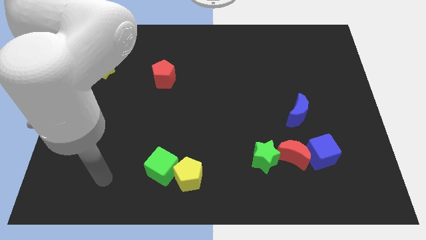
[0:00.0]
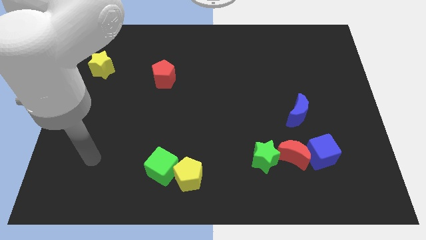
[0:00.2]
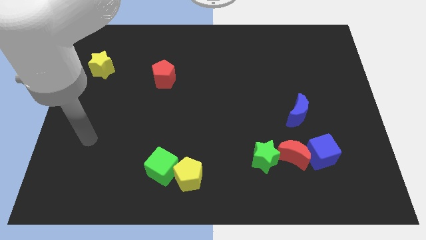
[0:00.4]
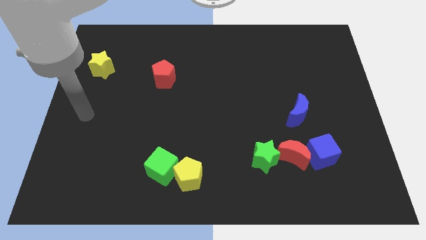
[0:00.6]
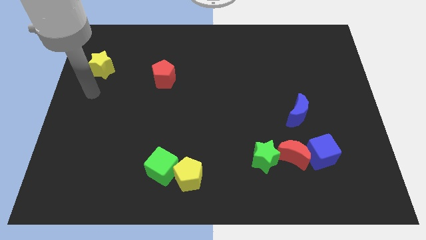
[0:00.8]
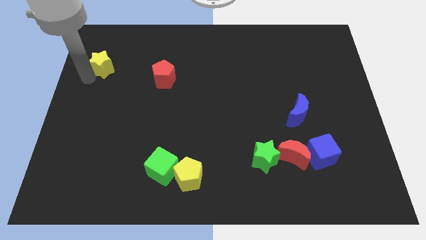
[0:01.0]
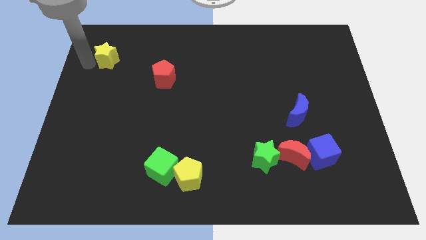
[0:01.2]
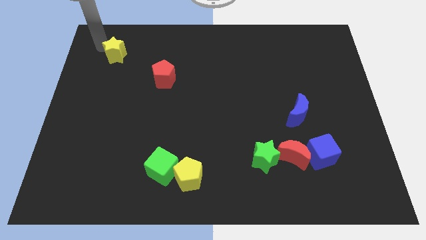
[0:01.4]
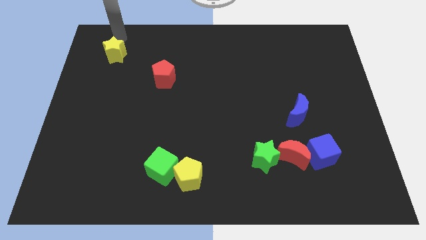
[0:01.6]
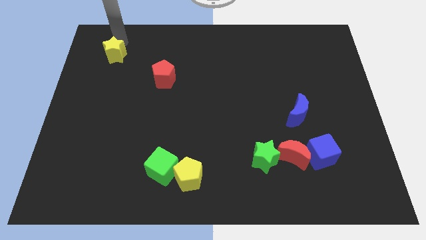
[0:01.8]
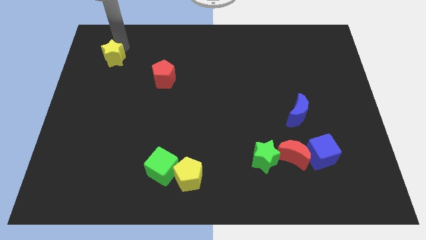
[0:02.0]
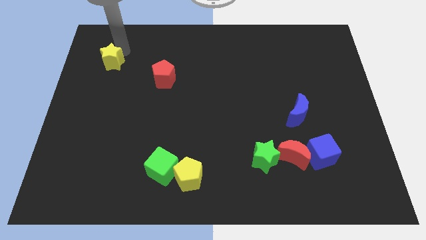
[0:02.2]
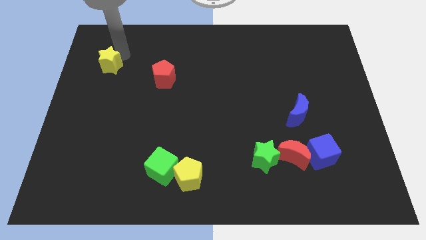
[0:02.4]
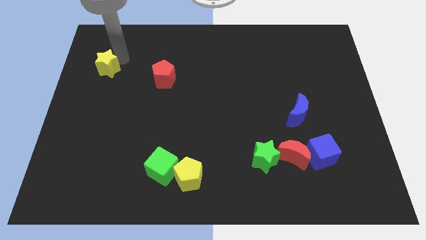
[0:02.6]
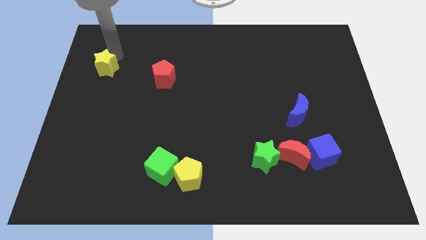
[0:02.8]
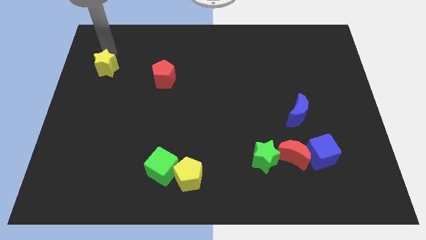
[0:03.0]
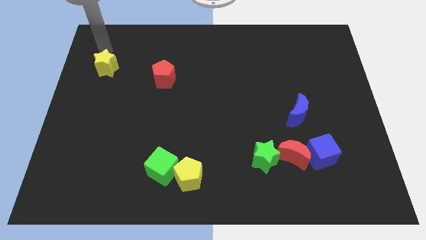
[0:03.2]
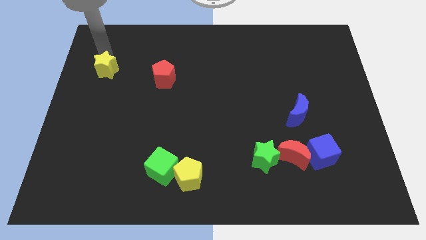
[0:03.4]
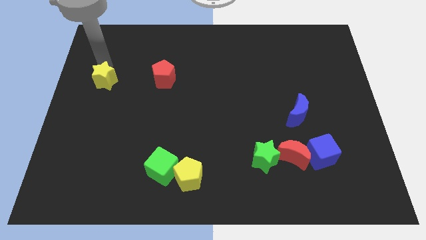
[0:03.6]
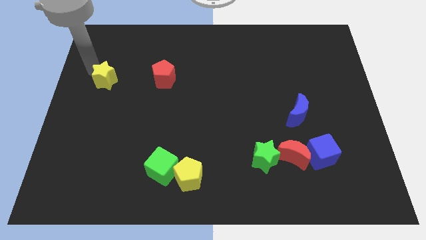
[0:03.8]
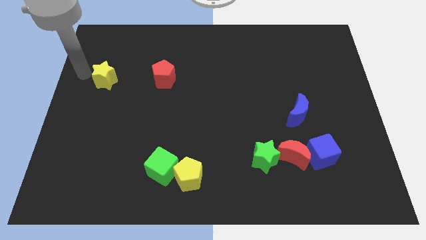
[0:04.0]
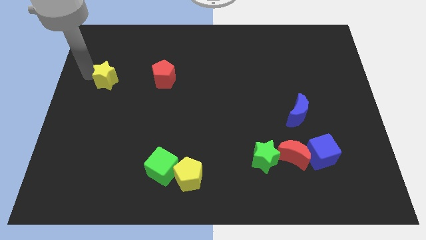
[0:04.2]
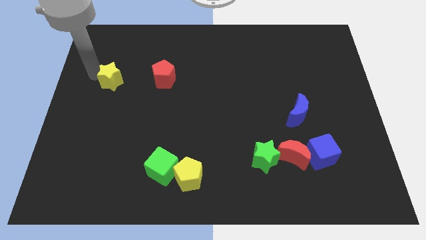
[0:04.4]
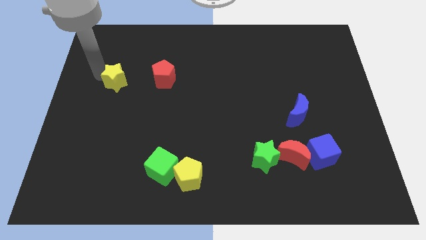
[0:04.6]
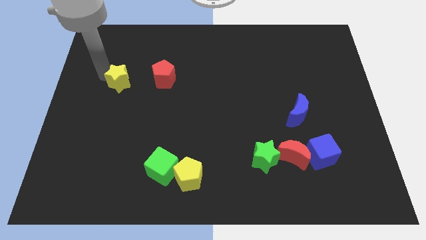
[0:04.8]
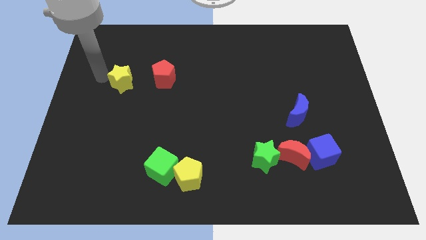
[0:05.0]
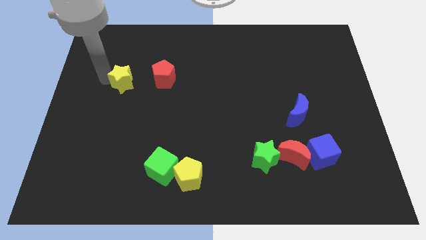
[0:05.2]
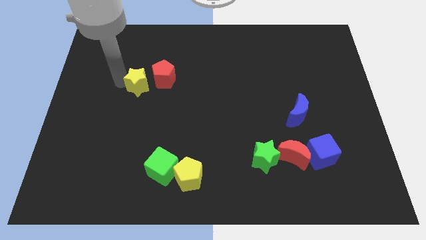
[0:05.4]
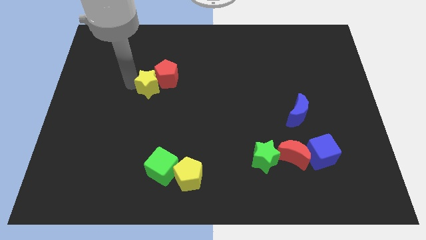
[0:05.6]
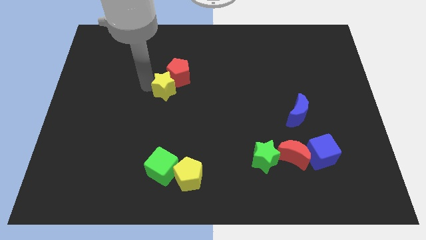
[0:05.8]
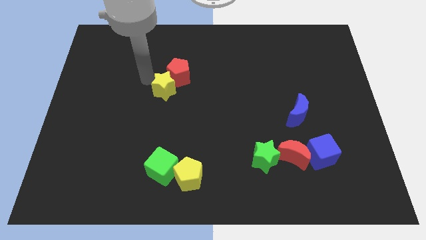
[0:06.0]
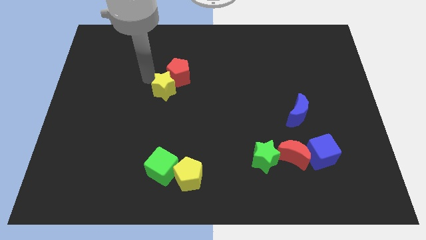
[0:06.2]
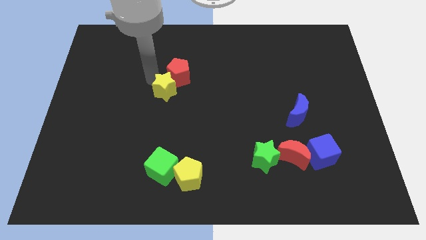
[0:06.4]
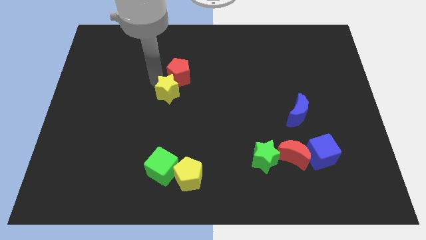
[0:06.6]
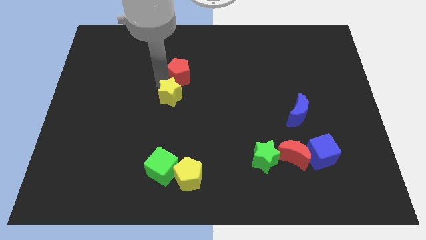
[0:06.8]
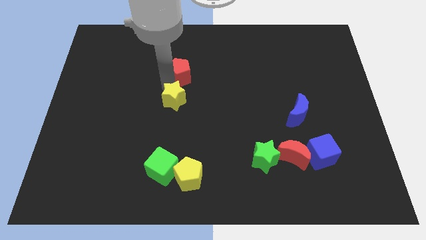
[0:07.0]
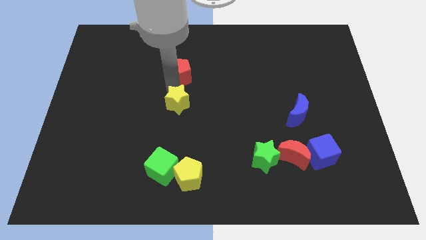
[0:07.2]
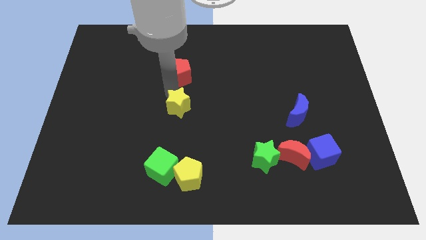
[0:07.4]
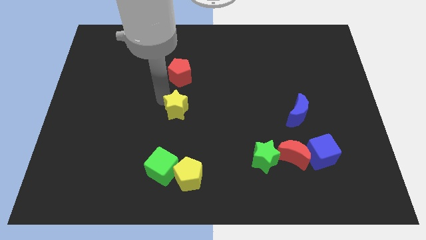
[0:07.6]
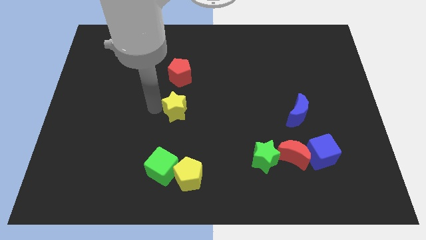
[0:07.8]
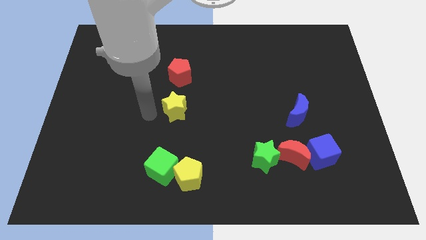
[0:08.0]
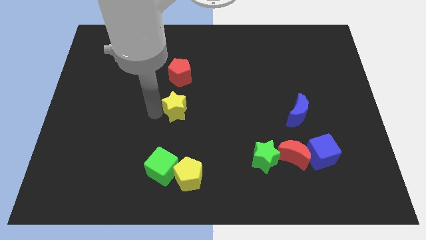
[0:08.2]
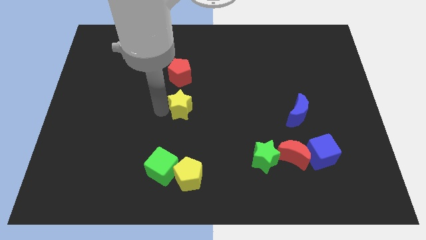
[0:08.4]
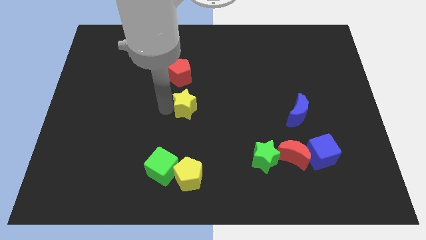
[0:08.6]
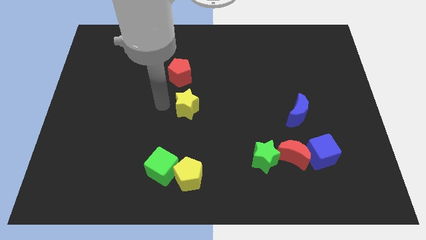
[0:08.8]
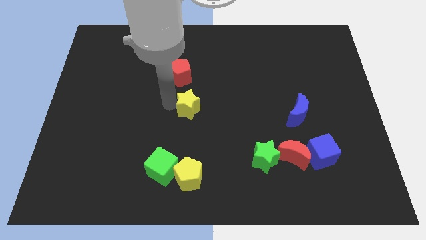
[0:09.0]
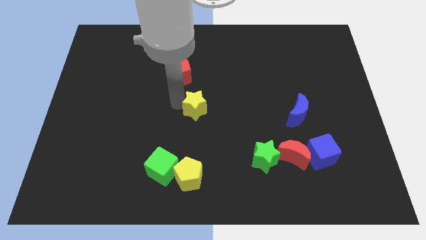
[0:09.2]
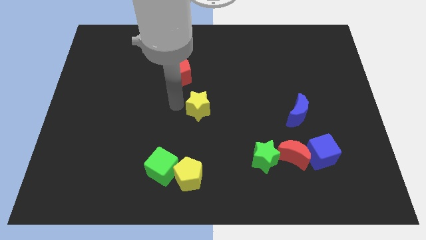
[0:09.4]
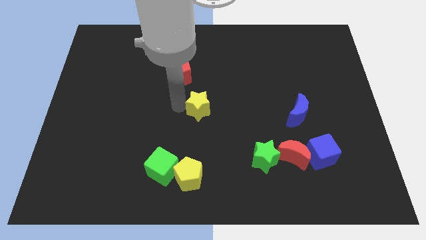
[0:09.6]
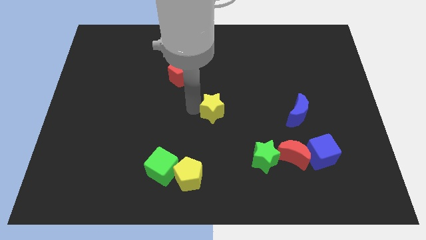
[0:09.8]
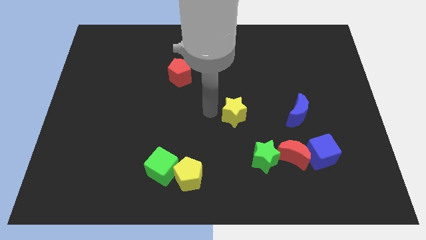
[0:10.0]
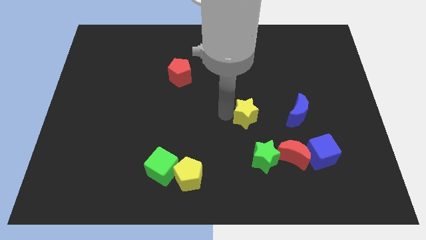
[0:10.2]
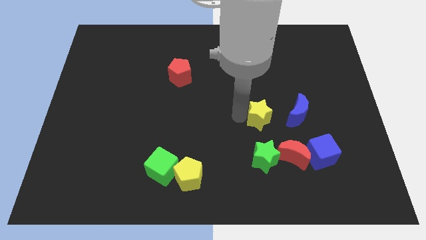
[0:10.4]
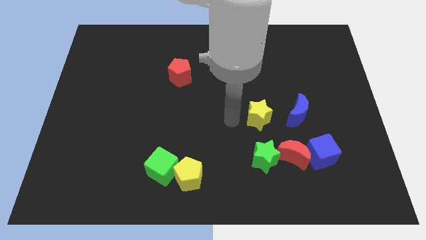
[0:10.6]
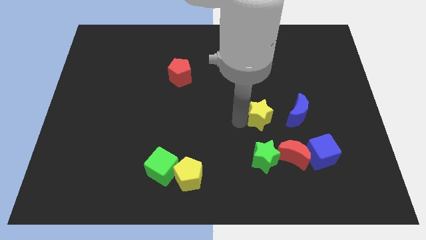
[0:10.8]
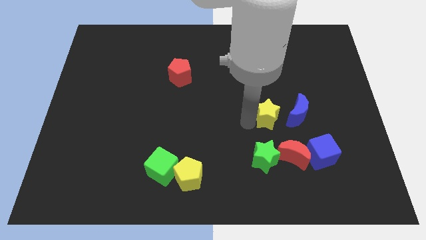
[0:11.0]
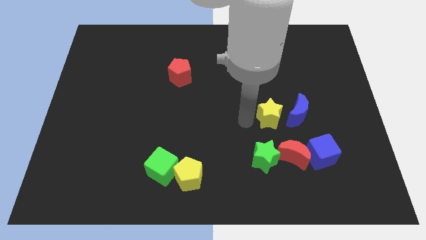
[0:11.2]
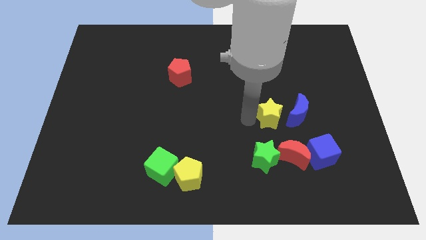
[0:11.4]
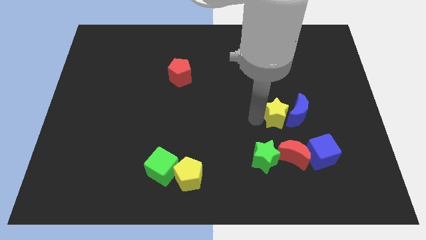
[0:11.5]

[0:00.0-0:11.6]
put the yellow star to the blue moon

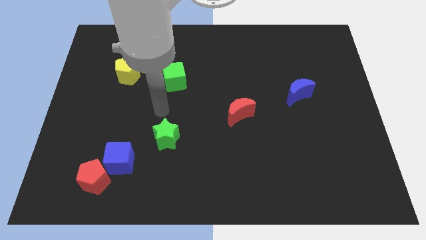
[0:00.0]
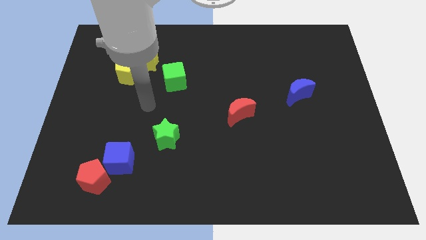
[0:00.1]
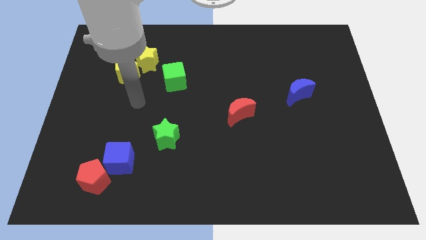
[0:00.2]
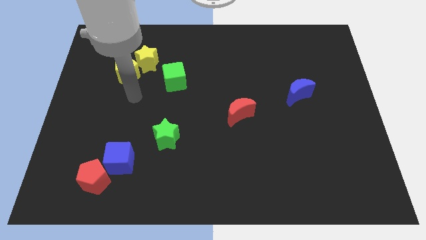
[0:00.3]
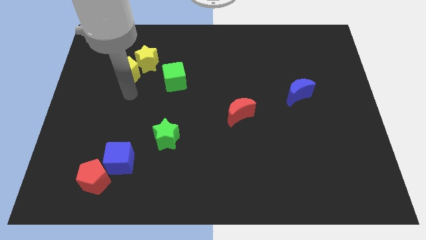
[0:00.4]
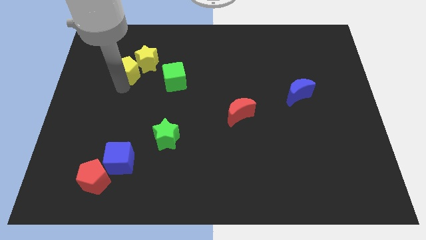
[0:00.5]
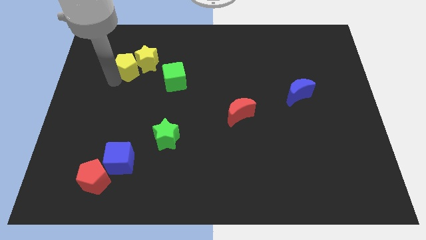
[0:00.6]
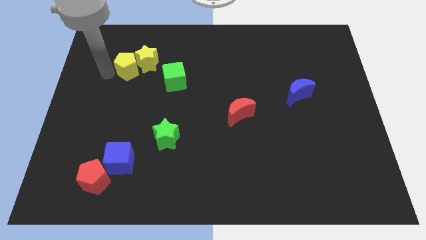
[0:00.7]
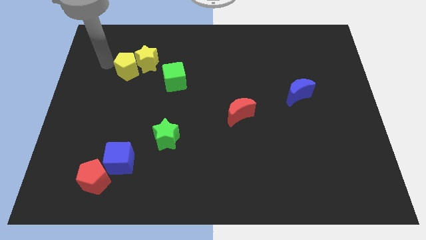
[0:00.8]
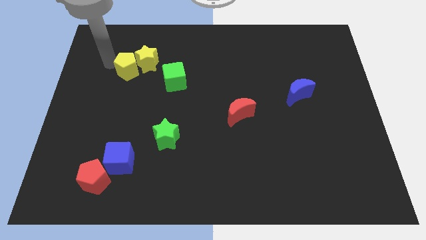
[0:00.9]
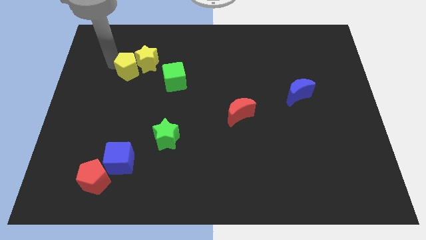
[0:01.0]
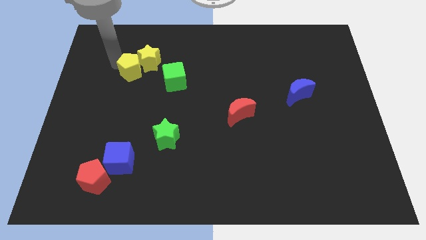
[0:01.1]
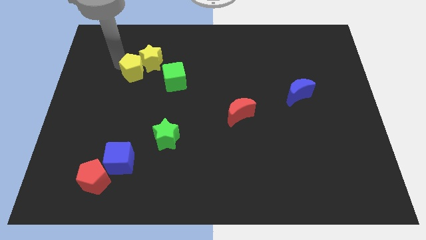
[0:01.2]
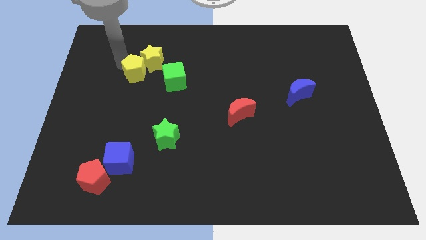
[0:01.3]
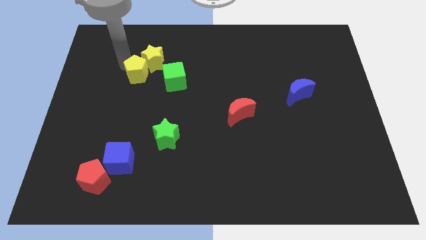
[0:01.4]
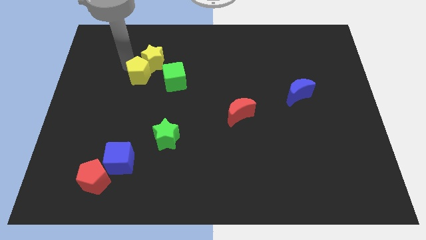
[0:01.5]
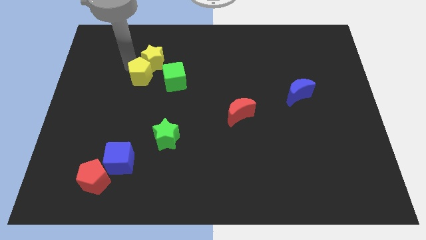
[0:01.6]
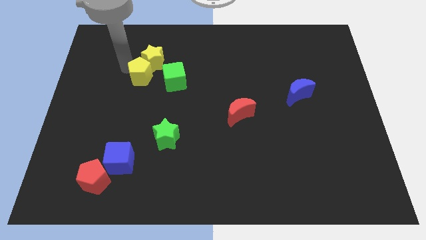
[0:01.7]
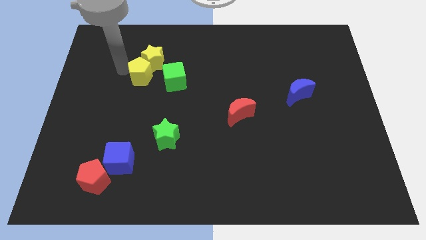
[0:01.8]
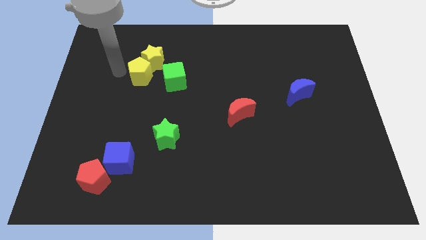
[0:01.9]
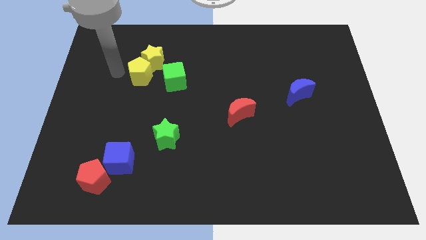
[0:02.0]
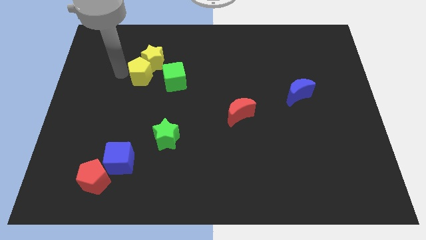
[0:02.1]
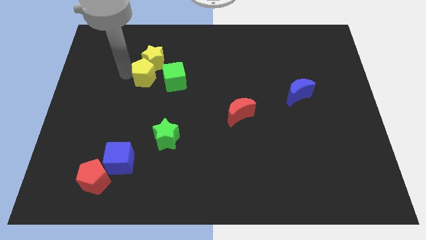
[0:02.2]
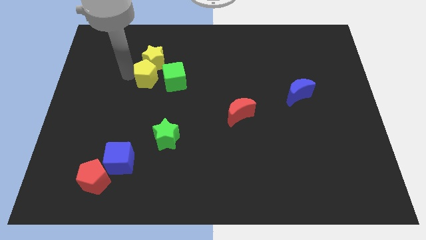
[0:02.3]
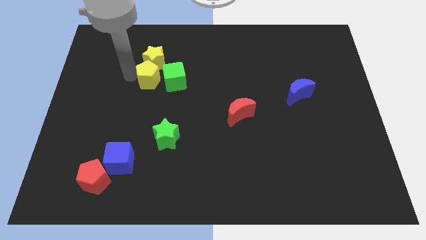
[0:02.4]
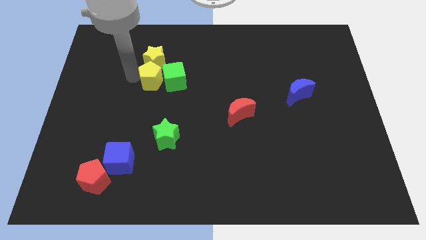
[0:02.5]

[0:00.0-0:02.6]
slide the yellow pentagon towards the green cube
